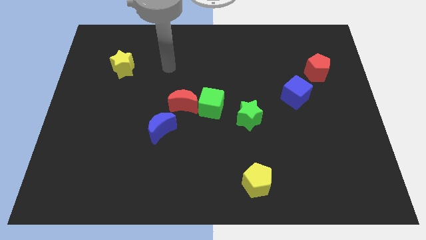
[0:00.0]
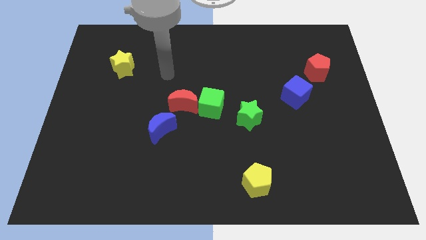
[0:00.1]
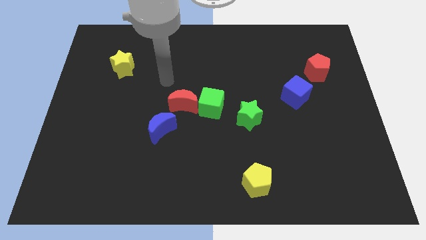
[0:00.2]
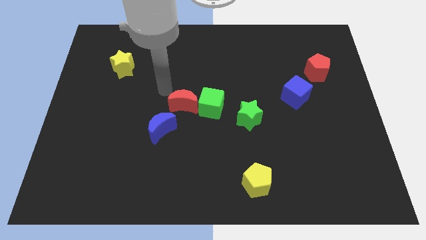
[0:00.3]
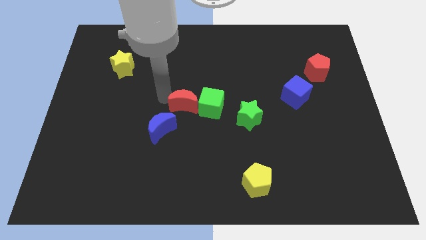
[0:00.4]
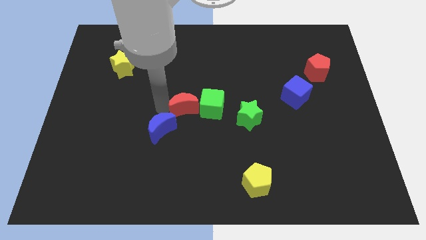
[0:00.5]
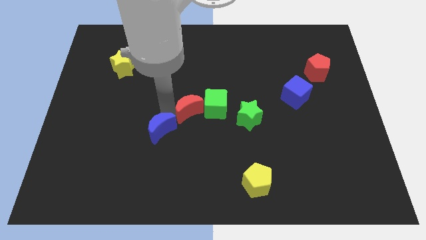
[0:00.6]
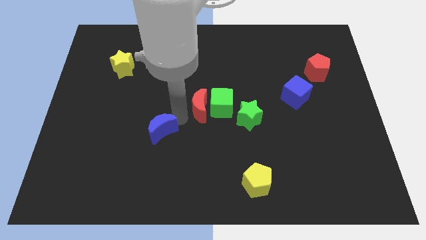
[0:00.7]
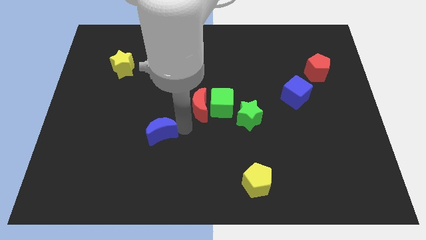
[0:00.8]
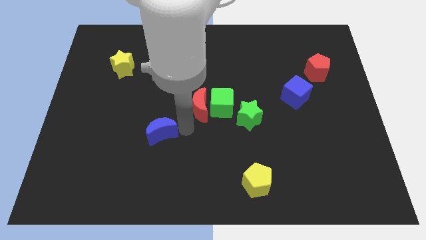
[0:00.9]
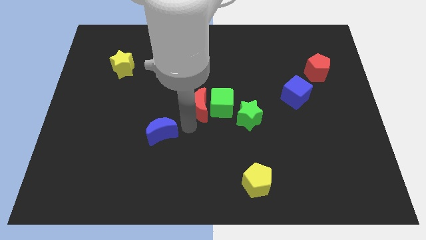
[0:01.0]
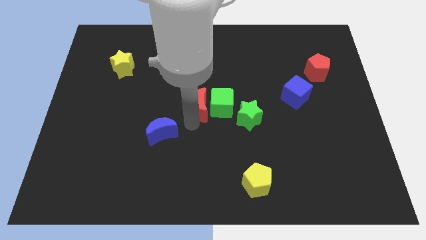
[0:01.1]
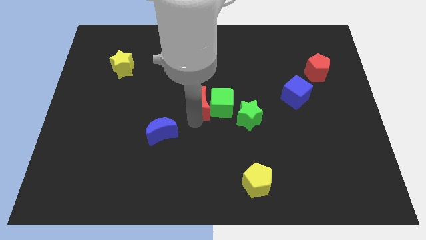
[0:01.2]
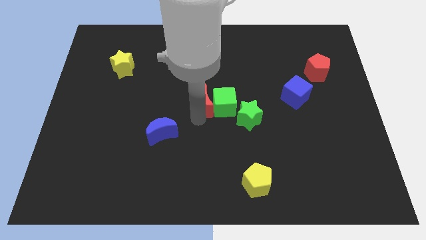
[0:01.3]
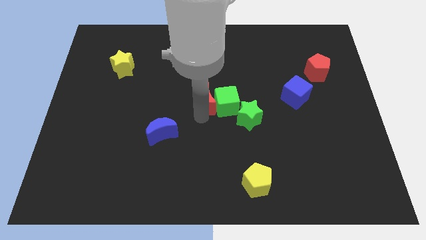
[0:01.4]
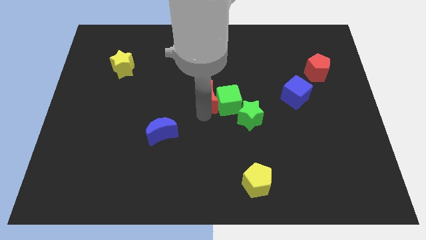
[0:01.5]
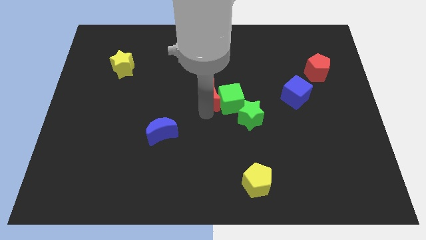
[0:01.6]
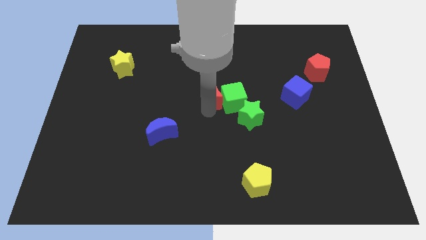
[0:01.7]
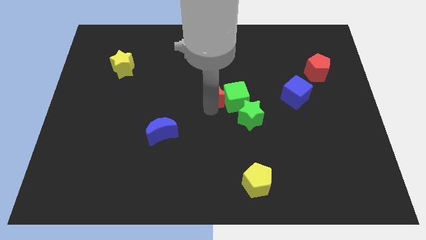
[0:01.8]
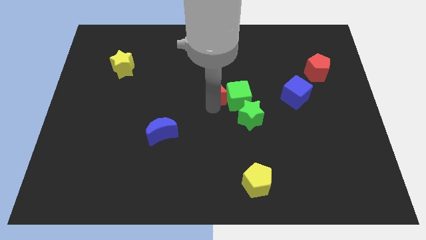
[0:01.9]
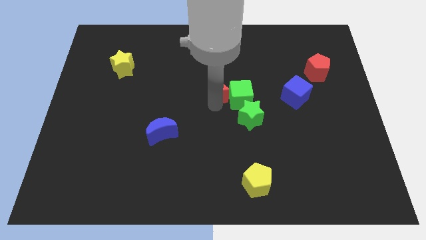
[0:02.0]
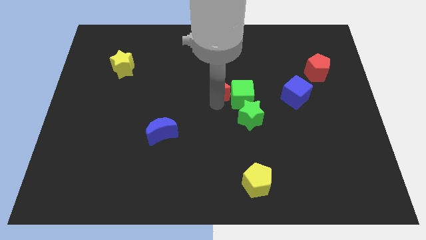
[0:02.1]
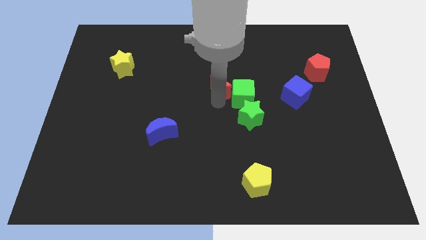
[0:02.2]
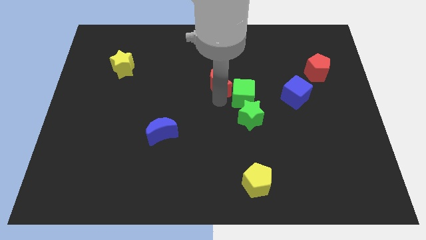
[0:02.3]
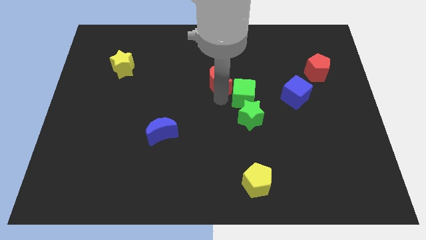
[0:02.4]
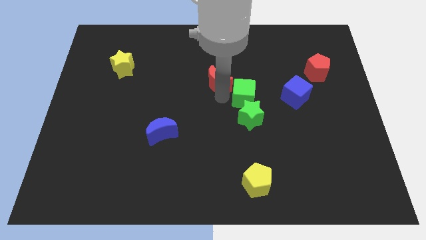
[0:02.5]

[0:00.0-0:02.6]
separate the red moon from the green cube and blue moon

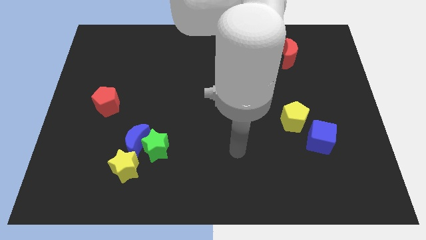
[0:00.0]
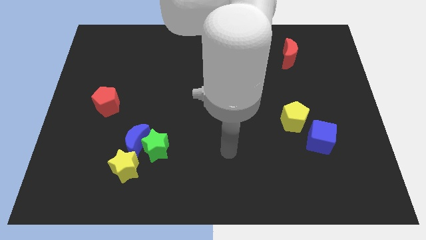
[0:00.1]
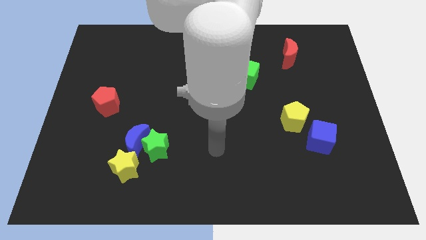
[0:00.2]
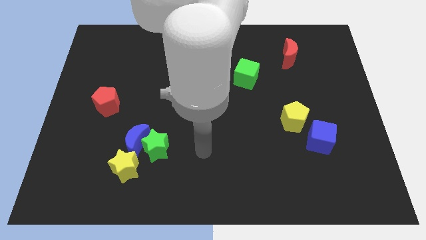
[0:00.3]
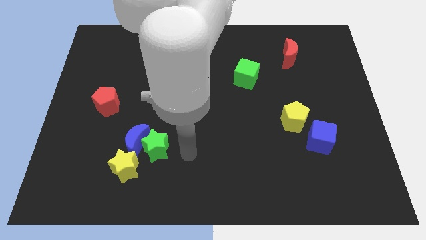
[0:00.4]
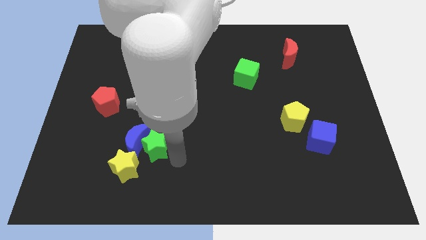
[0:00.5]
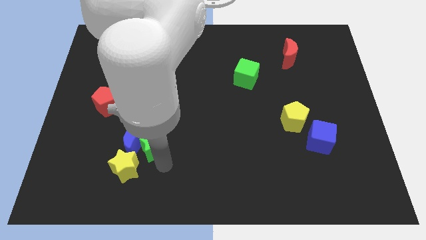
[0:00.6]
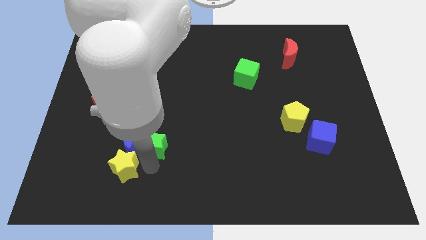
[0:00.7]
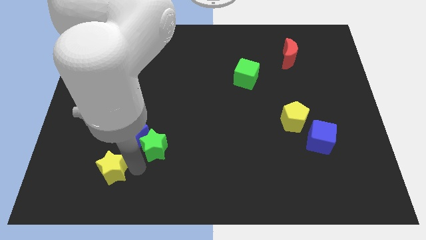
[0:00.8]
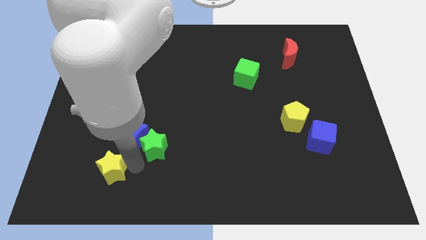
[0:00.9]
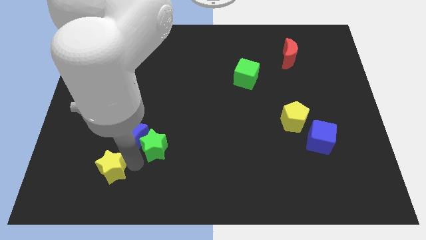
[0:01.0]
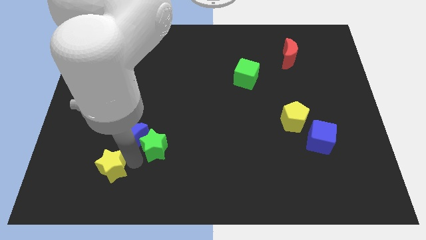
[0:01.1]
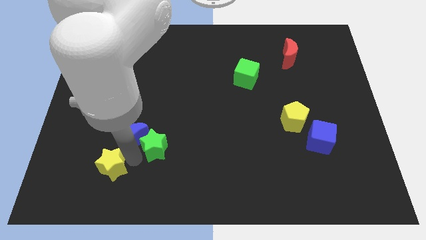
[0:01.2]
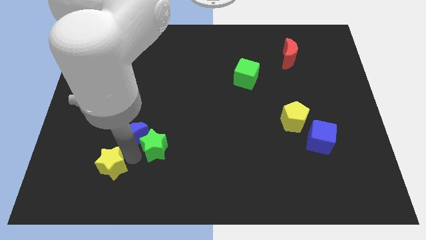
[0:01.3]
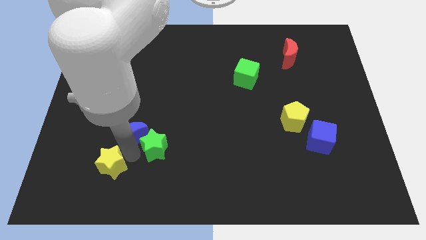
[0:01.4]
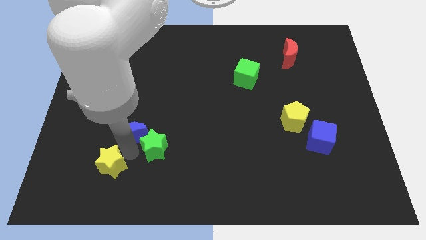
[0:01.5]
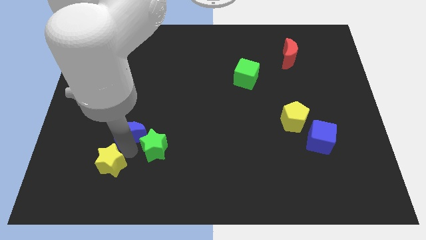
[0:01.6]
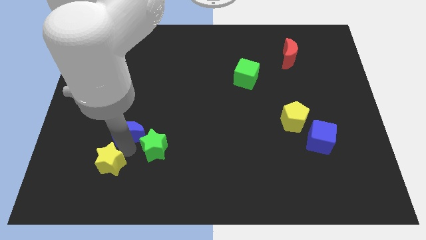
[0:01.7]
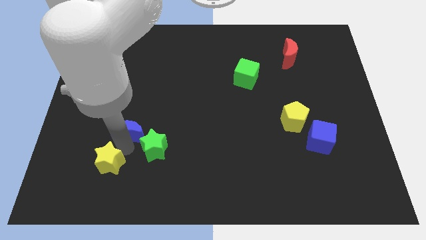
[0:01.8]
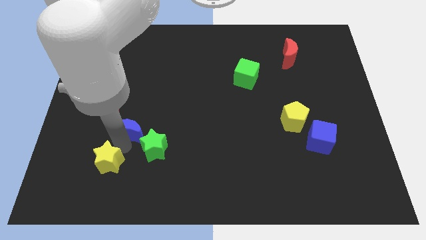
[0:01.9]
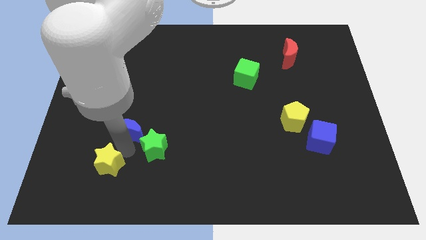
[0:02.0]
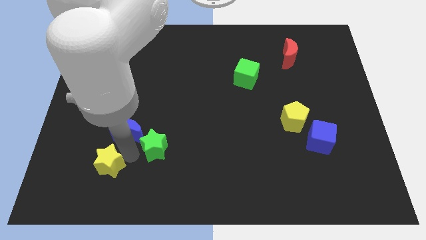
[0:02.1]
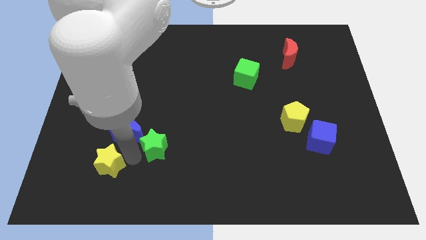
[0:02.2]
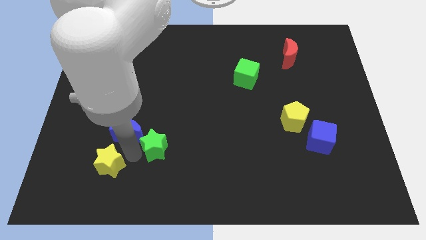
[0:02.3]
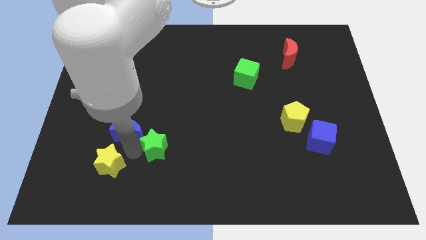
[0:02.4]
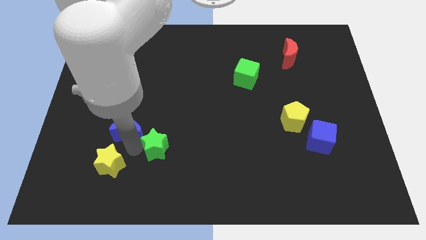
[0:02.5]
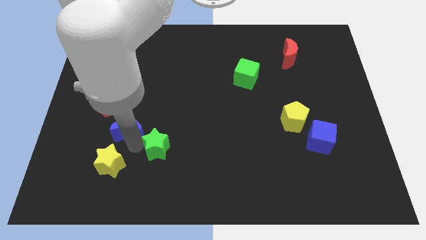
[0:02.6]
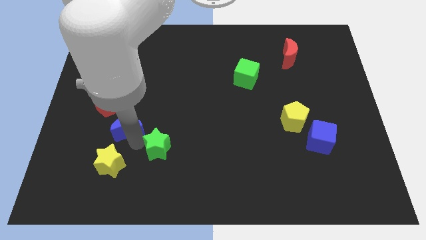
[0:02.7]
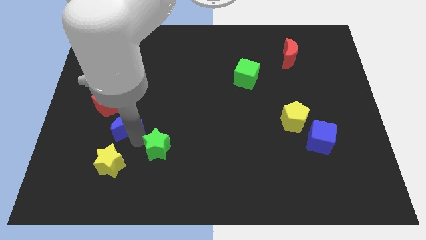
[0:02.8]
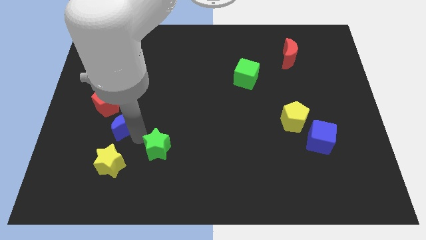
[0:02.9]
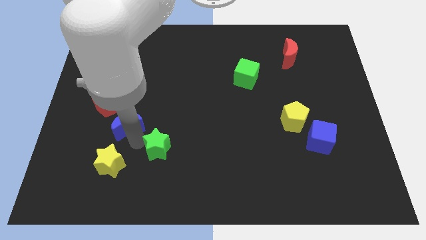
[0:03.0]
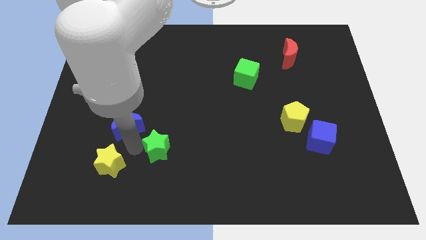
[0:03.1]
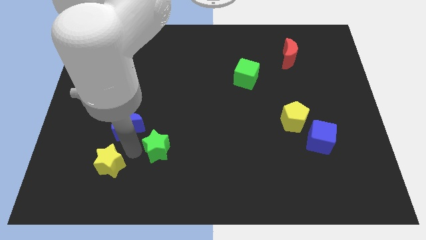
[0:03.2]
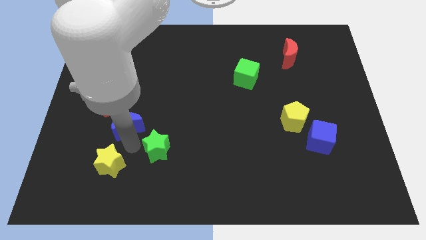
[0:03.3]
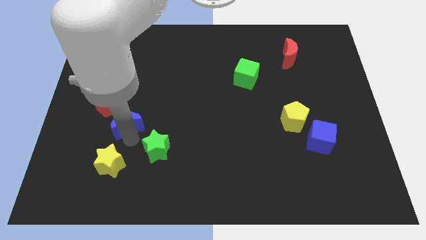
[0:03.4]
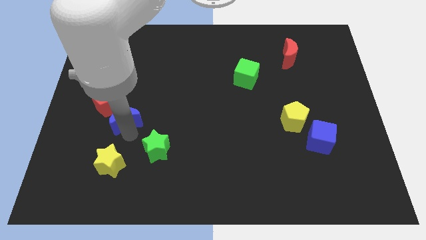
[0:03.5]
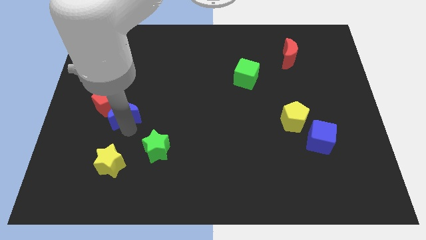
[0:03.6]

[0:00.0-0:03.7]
move the blue moon away from the green star and yellow star

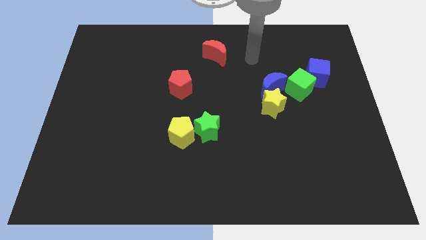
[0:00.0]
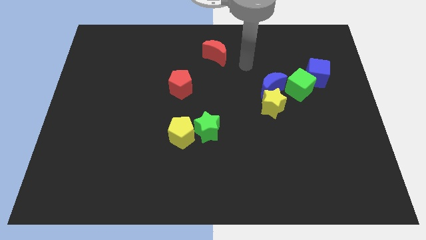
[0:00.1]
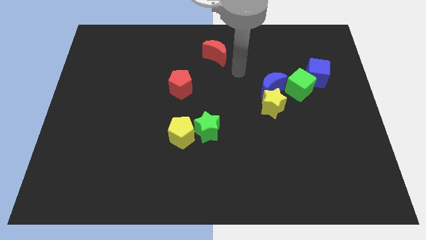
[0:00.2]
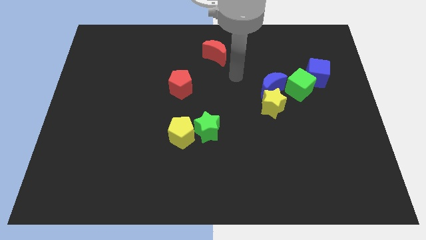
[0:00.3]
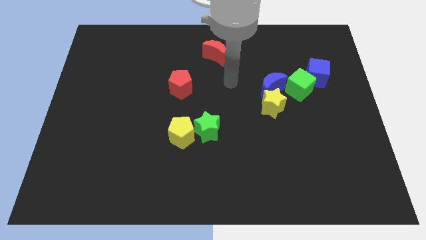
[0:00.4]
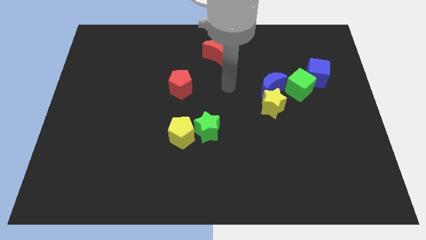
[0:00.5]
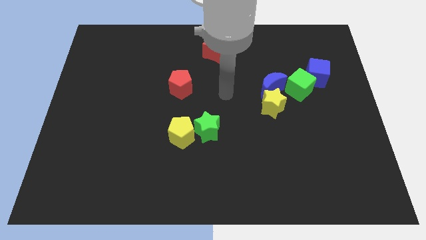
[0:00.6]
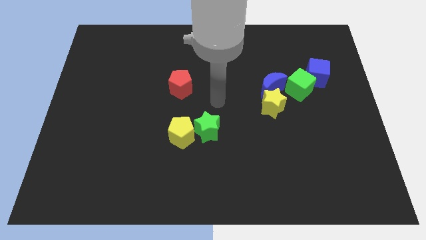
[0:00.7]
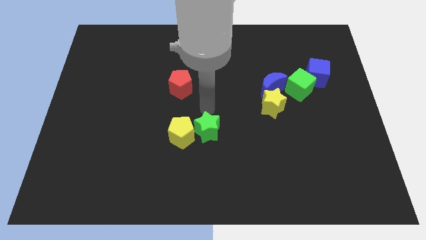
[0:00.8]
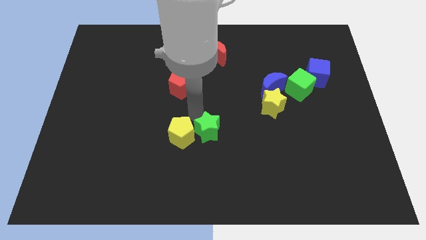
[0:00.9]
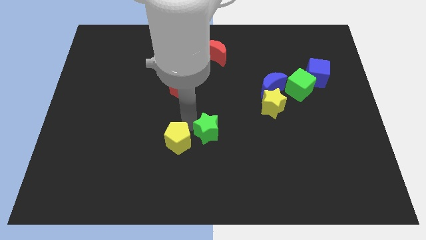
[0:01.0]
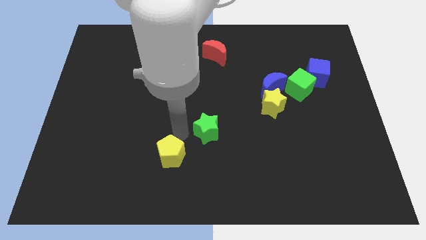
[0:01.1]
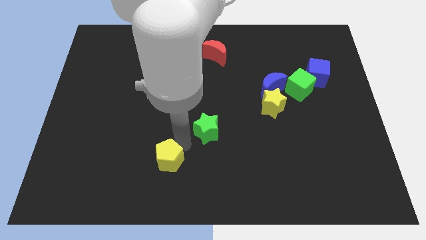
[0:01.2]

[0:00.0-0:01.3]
move the green star away from the yellow pentagon

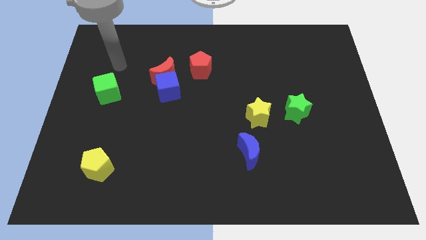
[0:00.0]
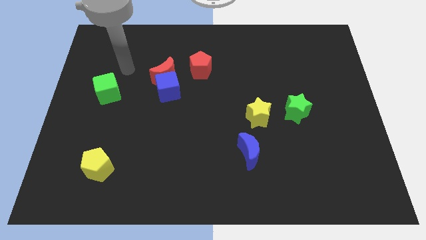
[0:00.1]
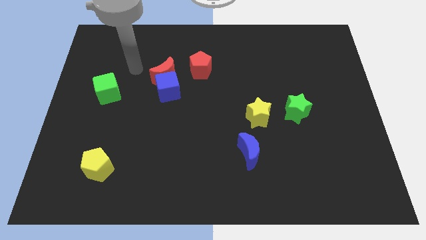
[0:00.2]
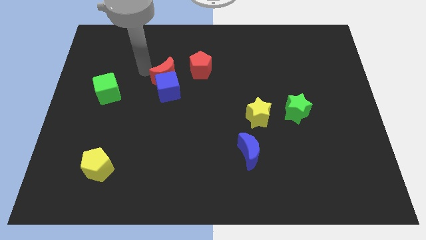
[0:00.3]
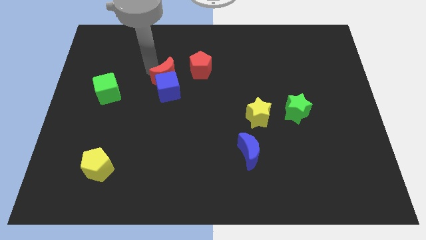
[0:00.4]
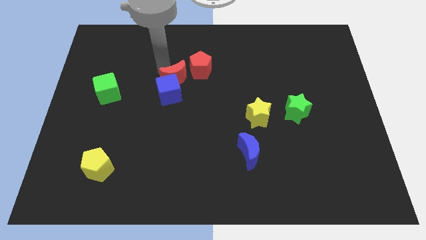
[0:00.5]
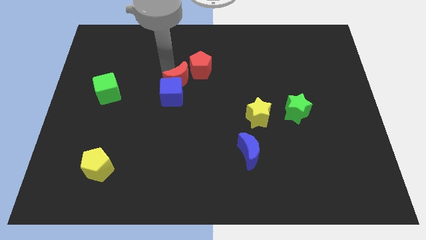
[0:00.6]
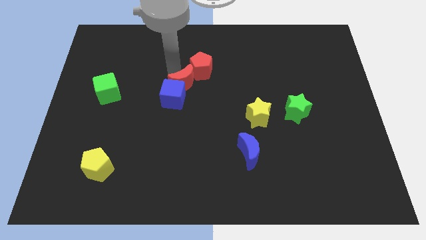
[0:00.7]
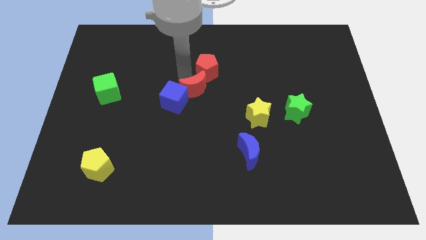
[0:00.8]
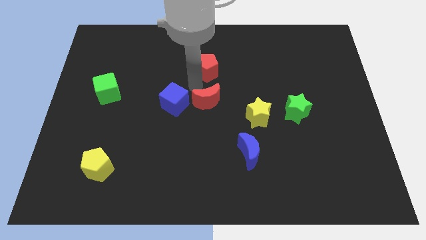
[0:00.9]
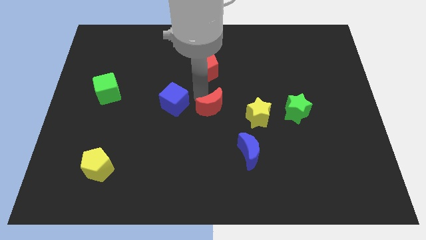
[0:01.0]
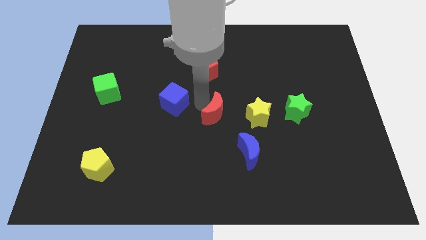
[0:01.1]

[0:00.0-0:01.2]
pull the blue cube apart from the red moon

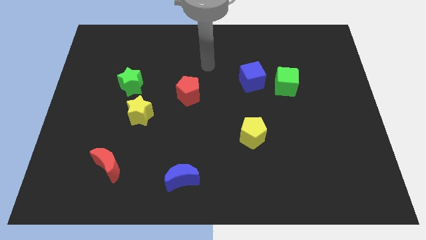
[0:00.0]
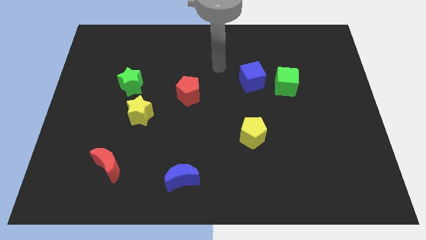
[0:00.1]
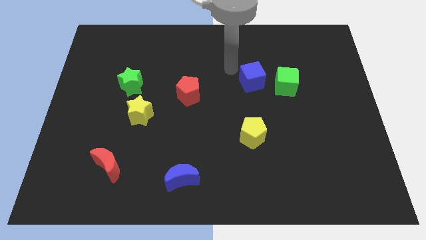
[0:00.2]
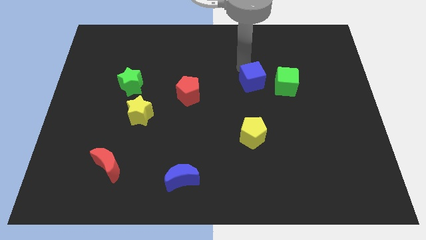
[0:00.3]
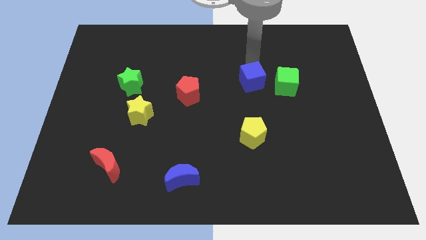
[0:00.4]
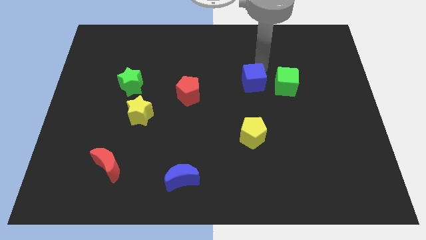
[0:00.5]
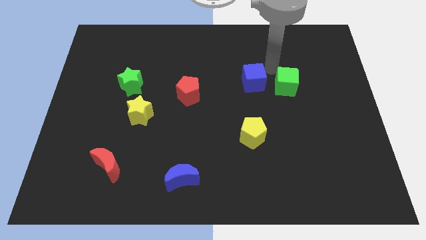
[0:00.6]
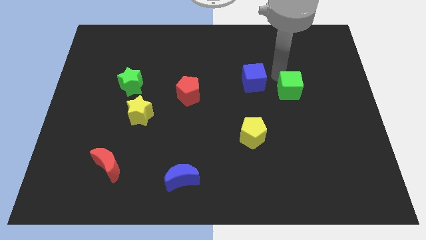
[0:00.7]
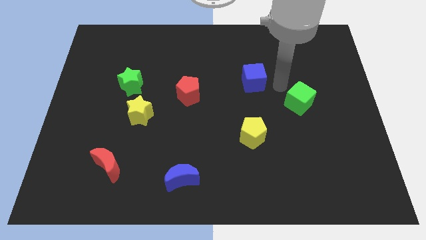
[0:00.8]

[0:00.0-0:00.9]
pull the blue cube apart from the green cube
